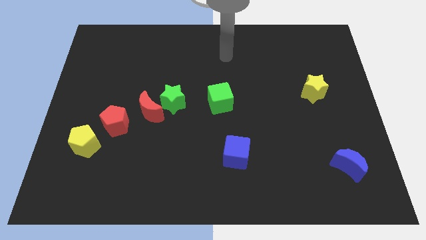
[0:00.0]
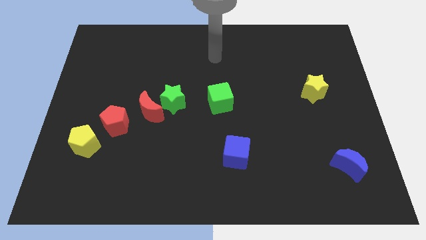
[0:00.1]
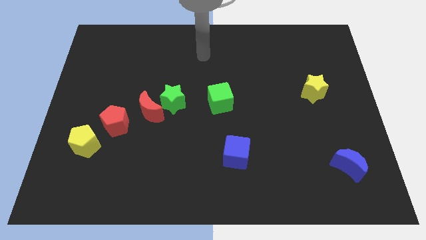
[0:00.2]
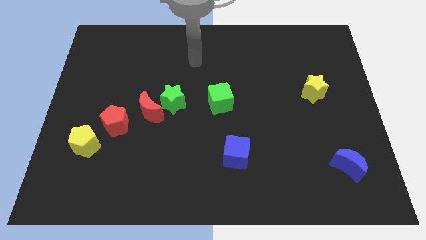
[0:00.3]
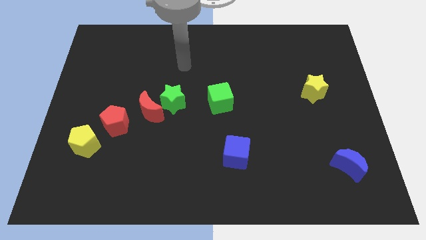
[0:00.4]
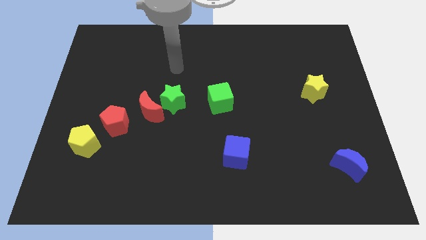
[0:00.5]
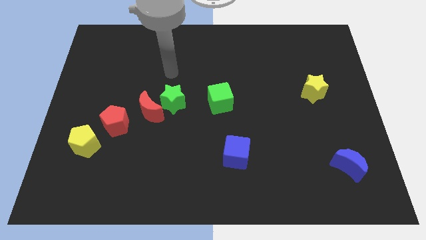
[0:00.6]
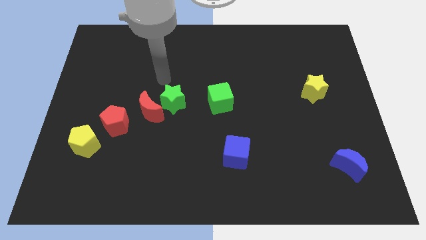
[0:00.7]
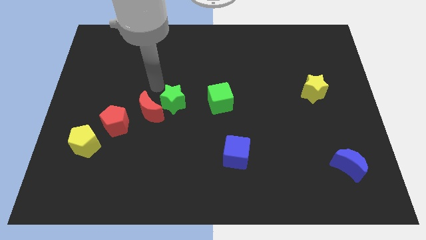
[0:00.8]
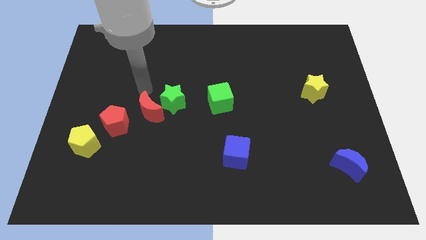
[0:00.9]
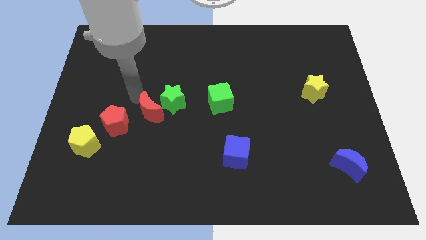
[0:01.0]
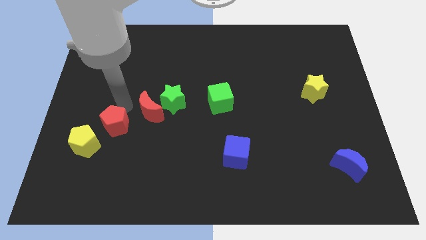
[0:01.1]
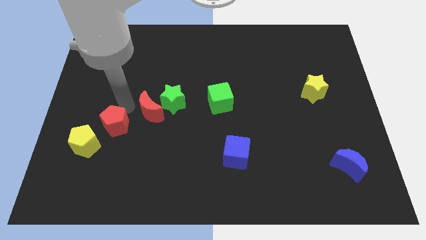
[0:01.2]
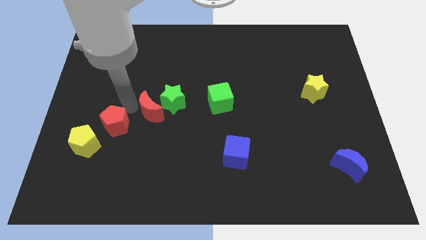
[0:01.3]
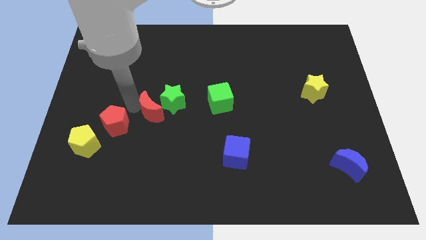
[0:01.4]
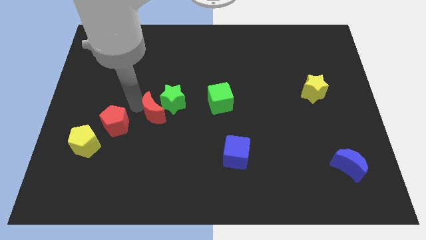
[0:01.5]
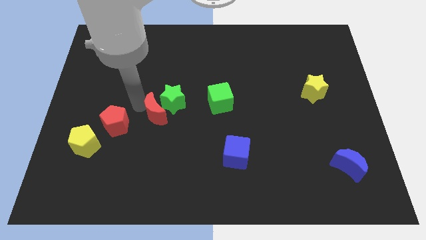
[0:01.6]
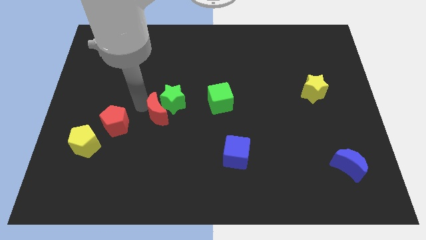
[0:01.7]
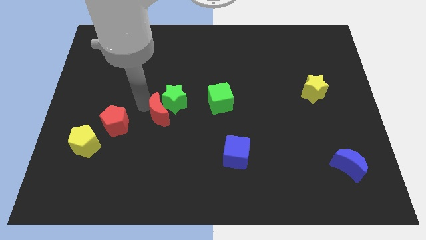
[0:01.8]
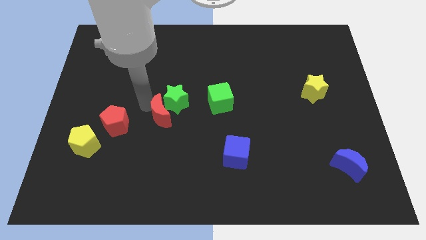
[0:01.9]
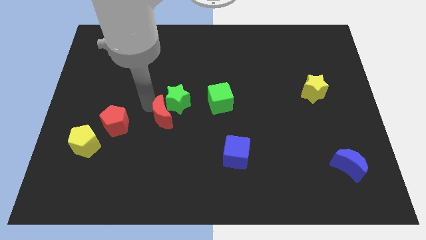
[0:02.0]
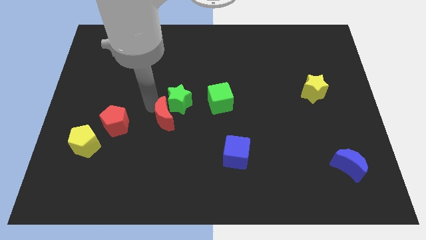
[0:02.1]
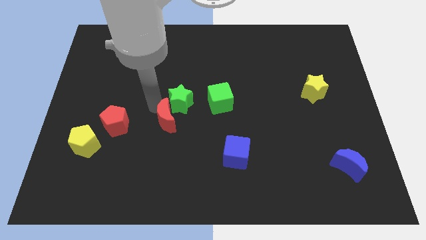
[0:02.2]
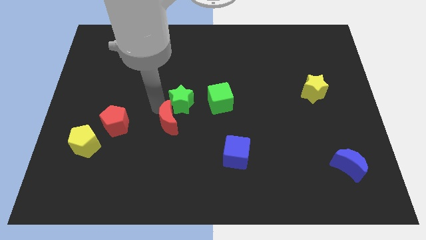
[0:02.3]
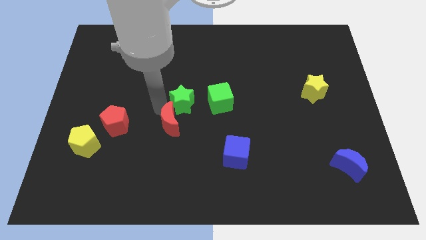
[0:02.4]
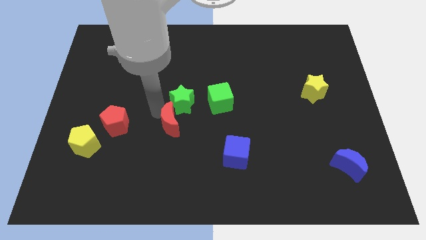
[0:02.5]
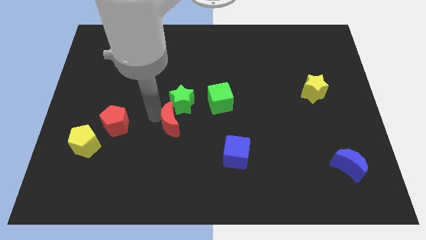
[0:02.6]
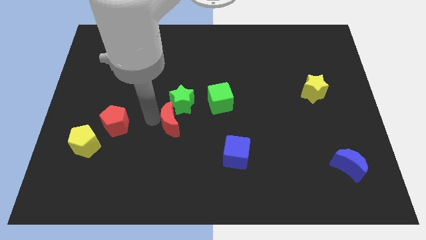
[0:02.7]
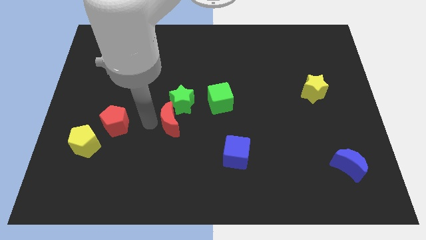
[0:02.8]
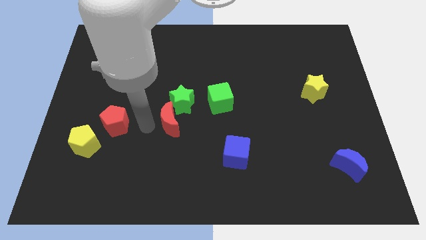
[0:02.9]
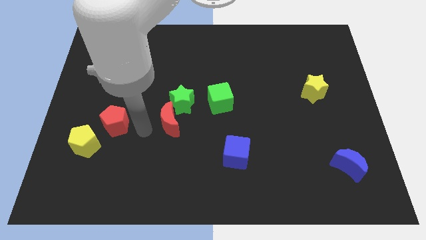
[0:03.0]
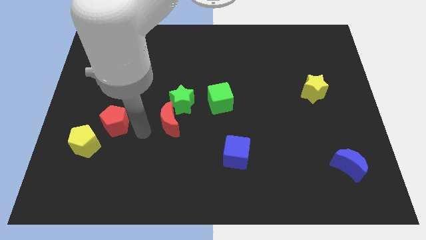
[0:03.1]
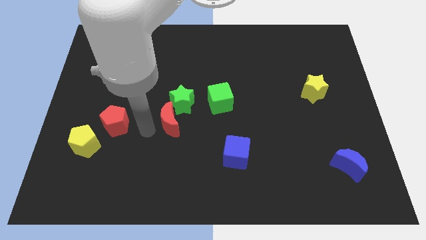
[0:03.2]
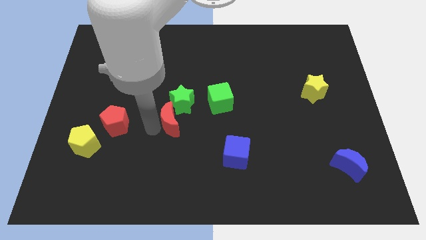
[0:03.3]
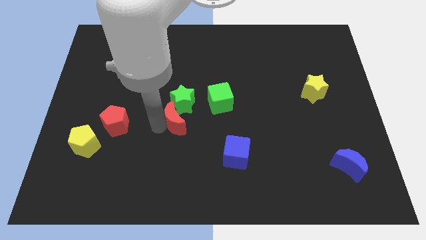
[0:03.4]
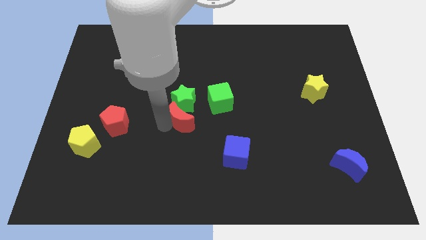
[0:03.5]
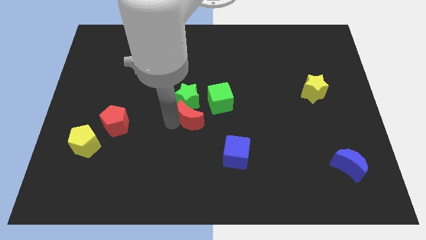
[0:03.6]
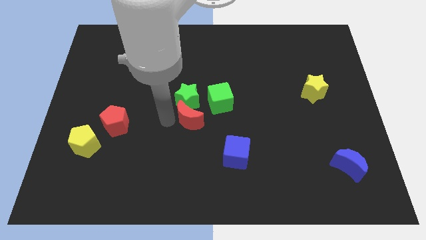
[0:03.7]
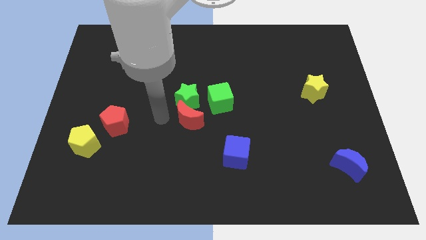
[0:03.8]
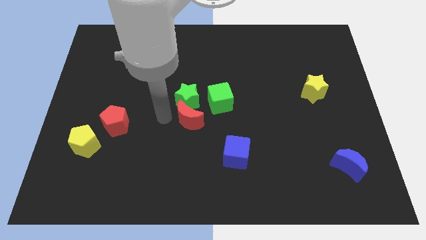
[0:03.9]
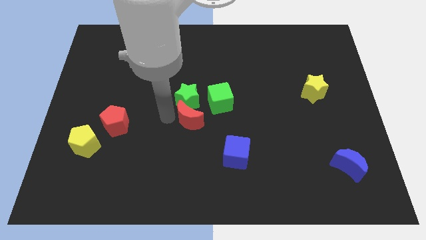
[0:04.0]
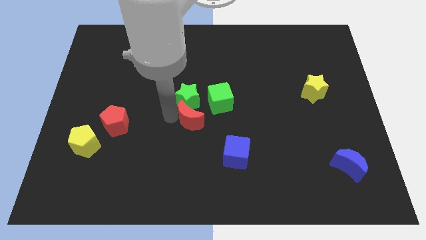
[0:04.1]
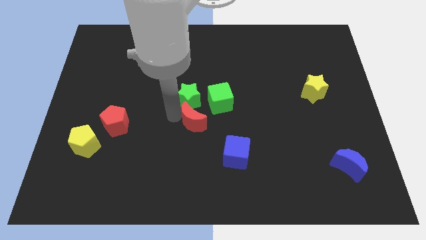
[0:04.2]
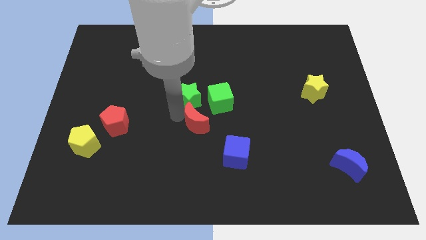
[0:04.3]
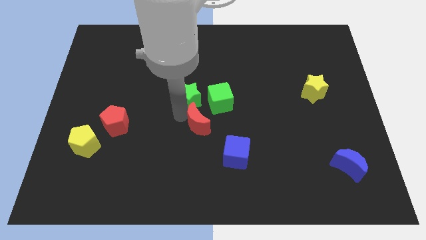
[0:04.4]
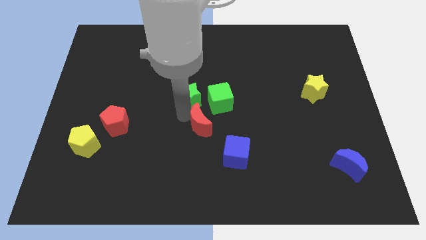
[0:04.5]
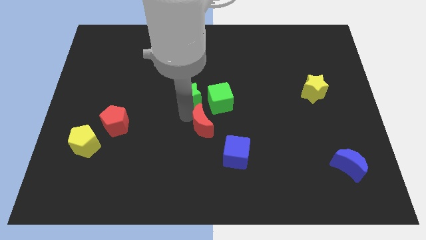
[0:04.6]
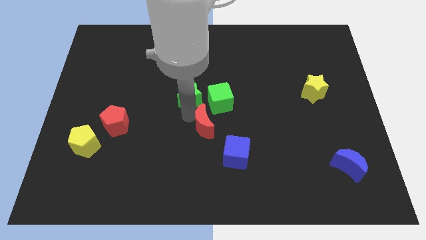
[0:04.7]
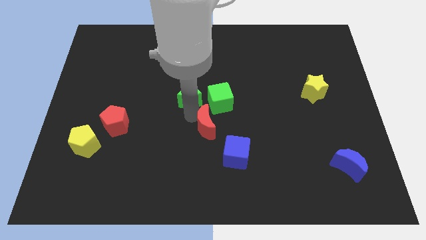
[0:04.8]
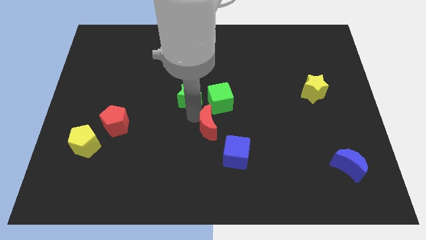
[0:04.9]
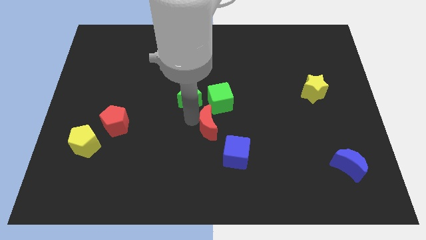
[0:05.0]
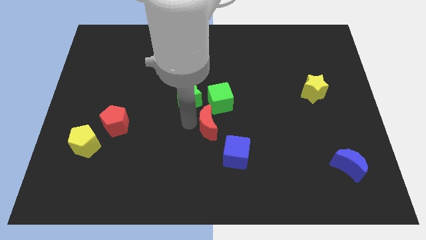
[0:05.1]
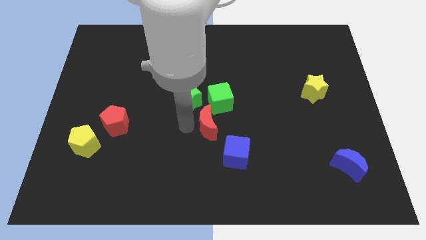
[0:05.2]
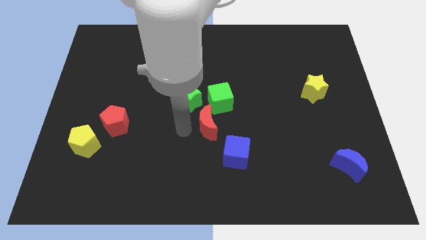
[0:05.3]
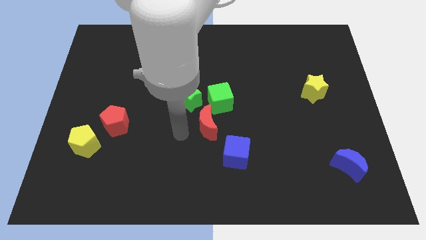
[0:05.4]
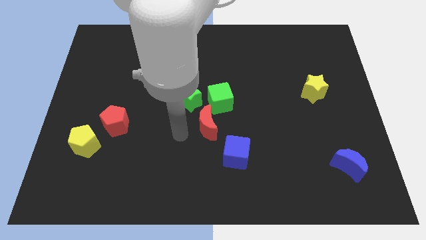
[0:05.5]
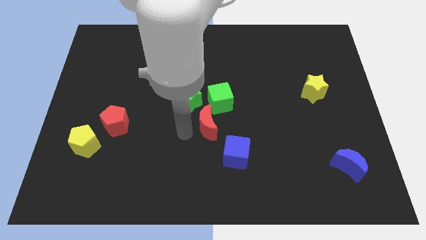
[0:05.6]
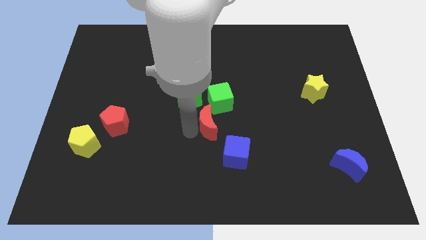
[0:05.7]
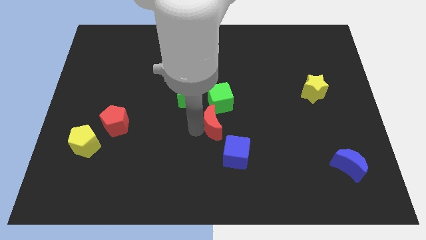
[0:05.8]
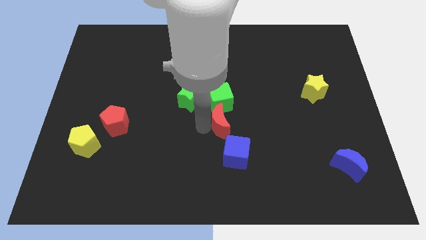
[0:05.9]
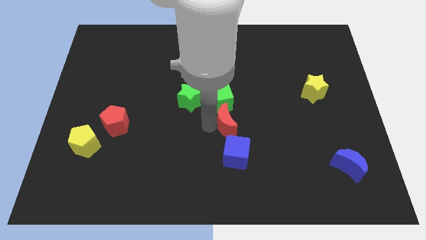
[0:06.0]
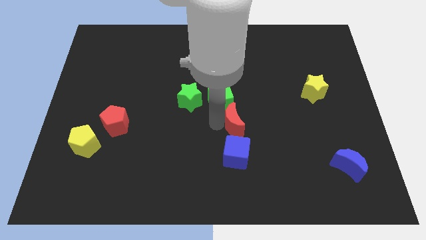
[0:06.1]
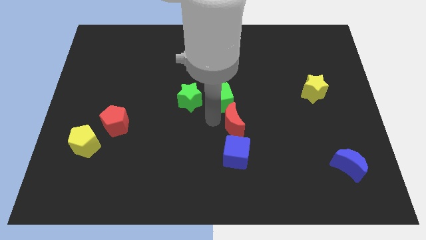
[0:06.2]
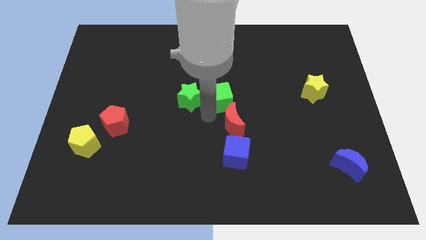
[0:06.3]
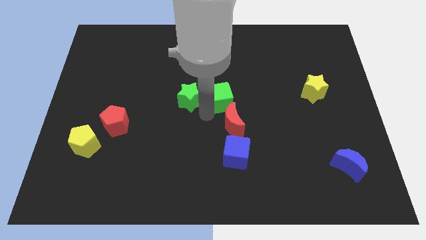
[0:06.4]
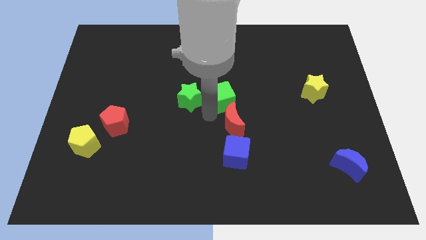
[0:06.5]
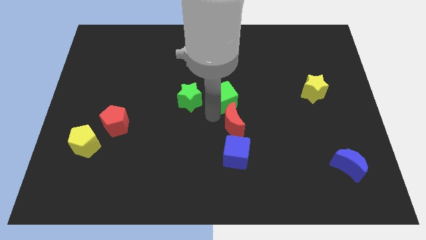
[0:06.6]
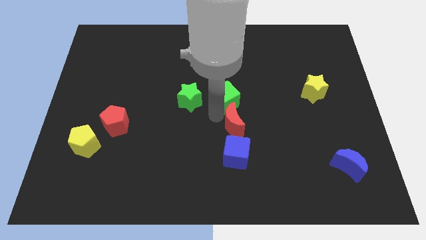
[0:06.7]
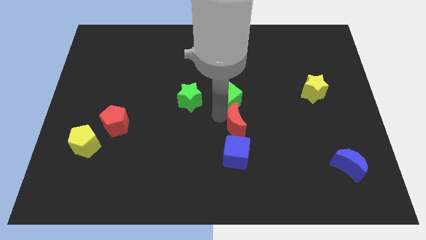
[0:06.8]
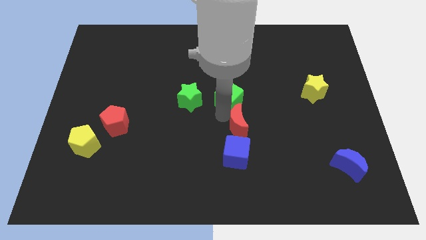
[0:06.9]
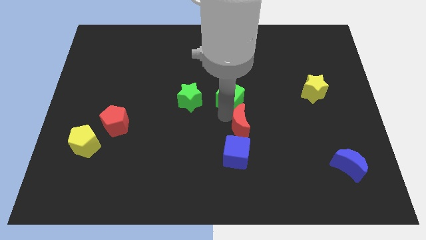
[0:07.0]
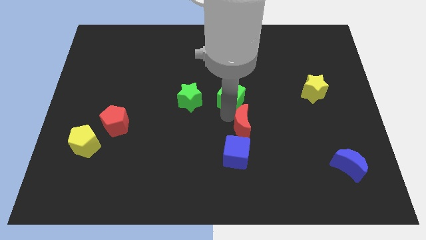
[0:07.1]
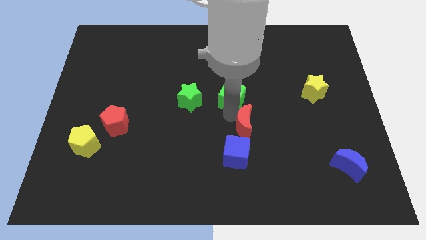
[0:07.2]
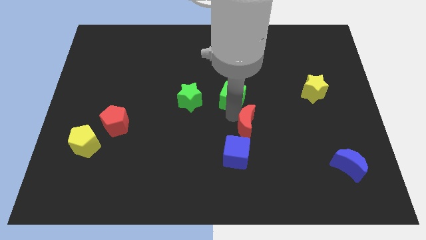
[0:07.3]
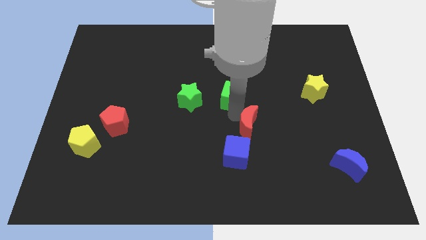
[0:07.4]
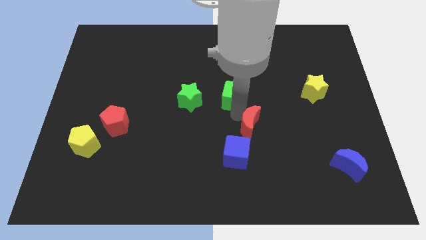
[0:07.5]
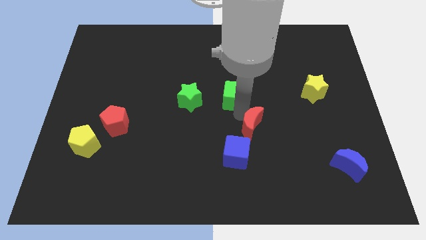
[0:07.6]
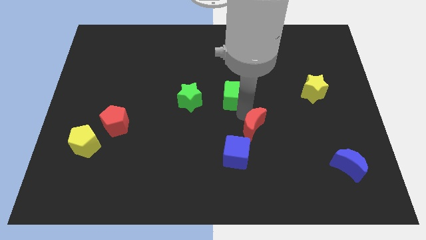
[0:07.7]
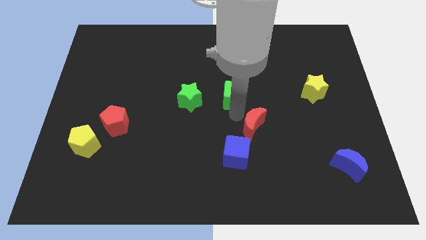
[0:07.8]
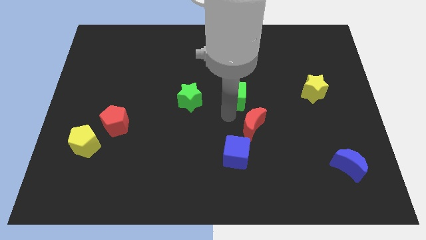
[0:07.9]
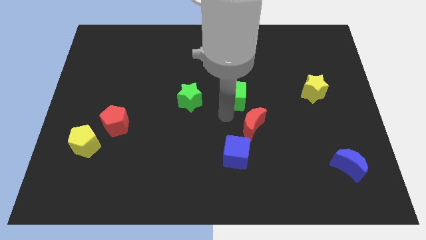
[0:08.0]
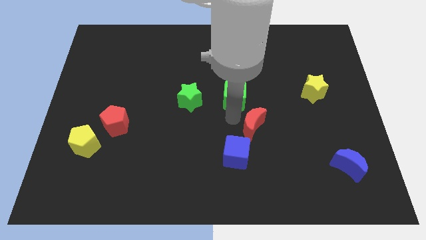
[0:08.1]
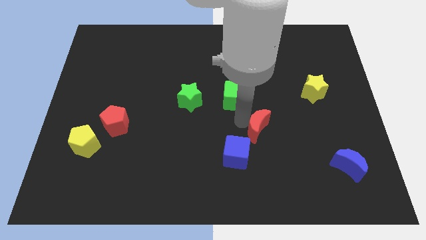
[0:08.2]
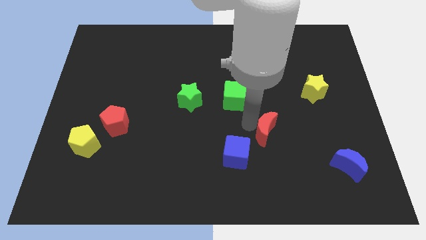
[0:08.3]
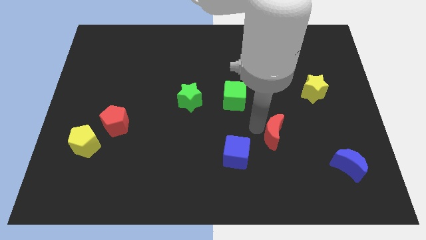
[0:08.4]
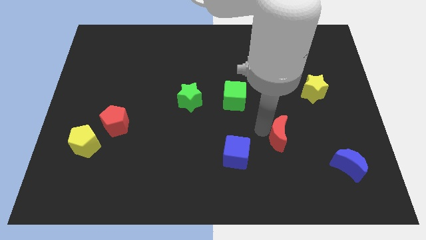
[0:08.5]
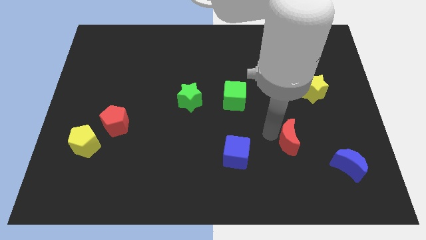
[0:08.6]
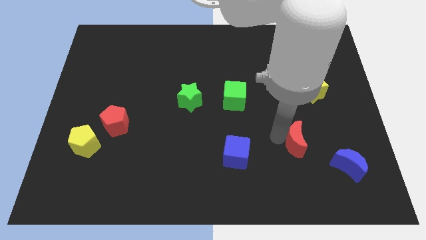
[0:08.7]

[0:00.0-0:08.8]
slide the red moon to the top left side of the blue moon
